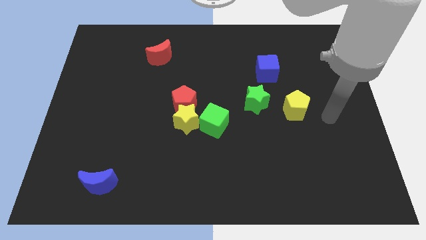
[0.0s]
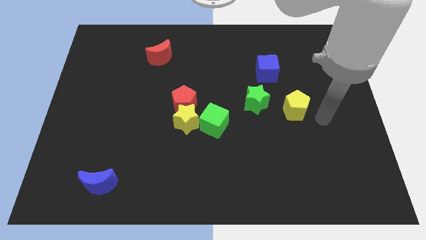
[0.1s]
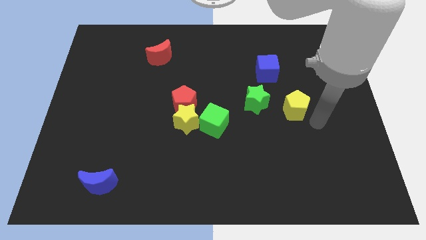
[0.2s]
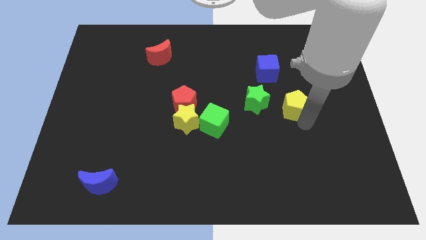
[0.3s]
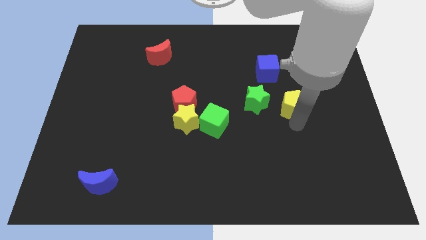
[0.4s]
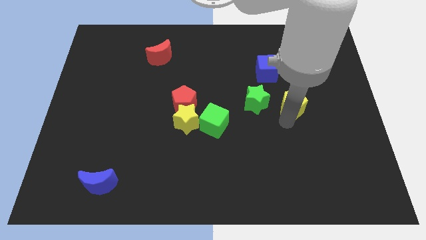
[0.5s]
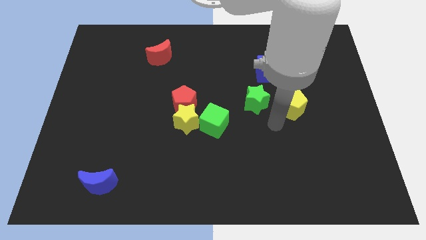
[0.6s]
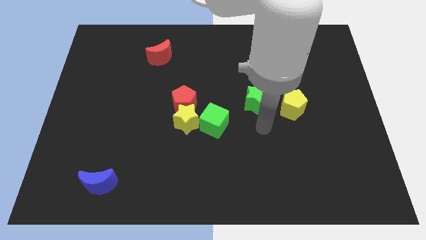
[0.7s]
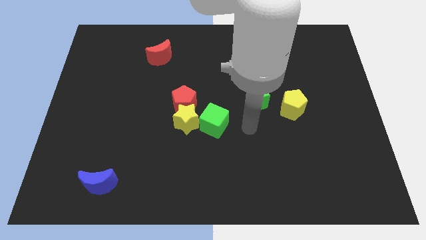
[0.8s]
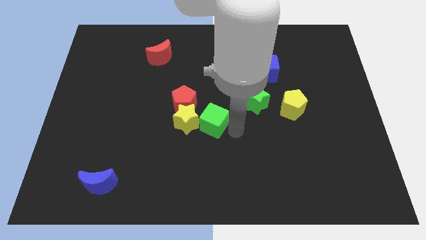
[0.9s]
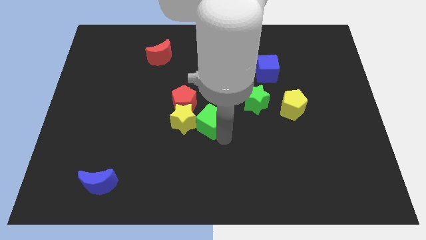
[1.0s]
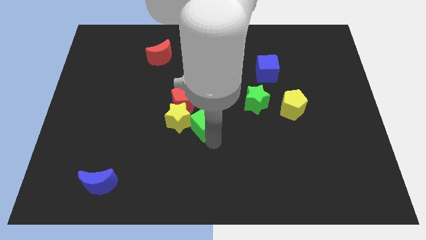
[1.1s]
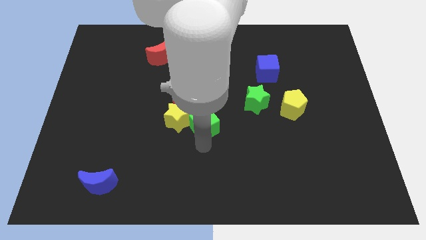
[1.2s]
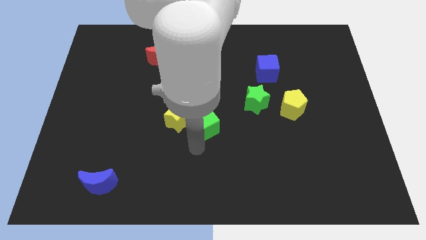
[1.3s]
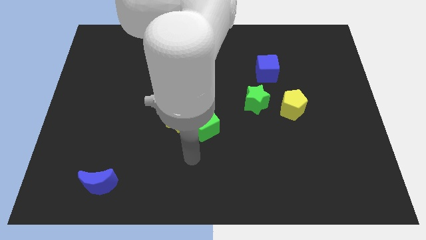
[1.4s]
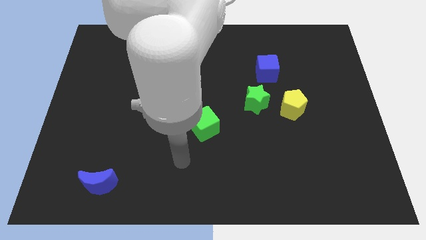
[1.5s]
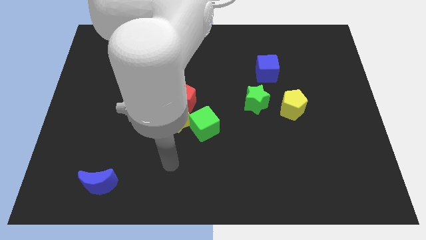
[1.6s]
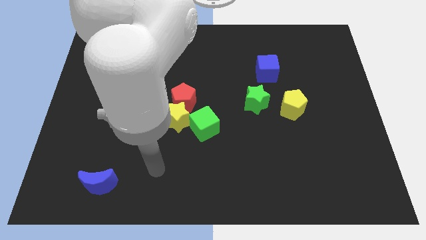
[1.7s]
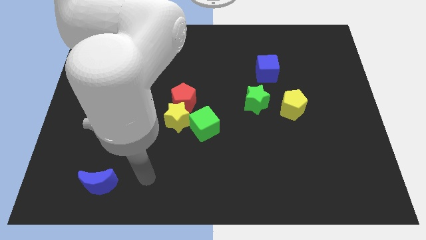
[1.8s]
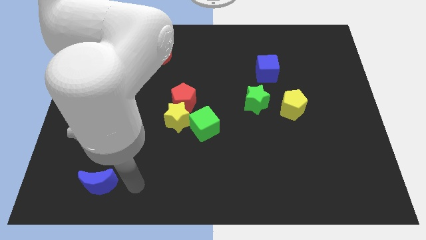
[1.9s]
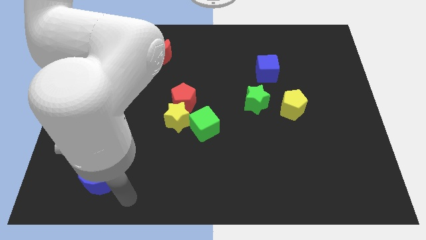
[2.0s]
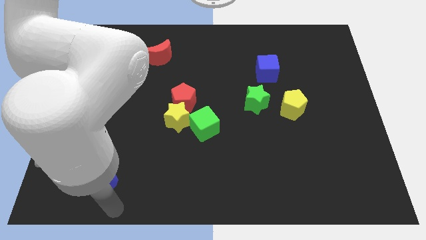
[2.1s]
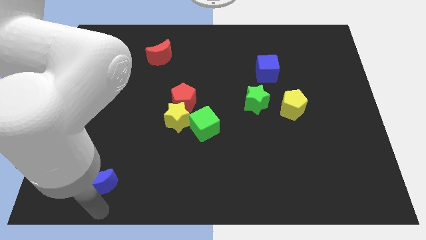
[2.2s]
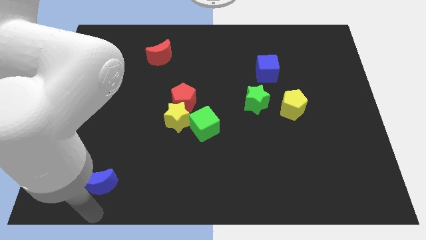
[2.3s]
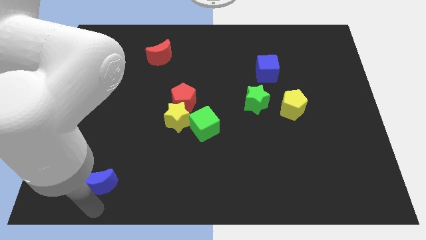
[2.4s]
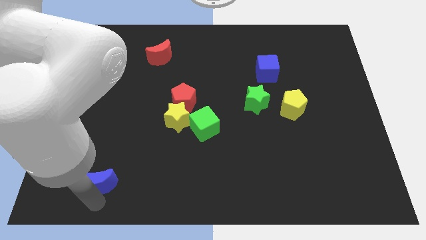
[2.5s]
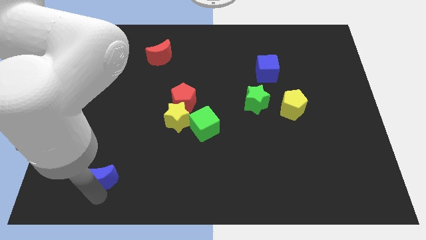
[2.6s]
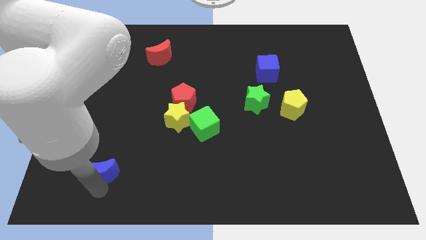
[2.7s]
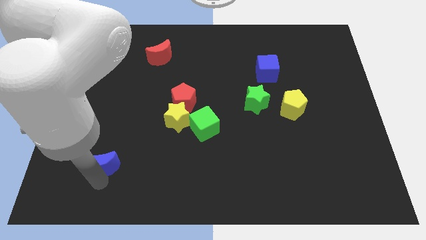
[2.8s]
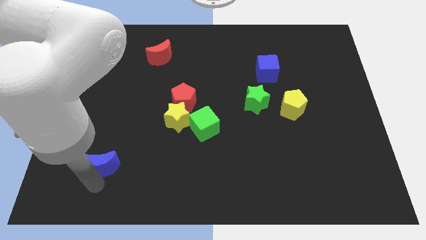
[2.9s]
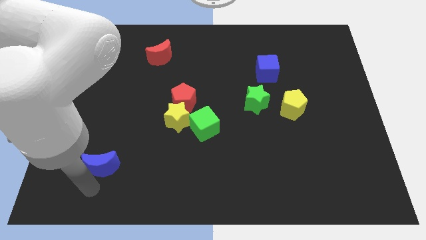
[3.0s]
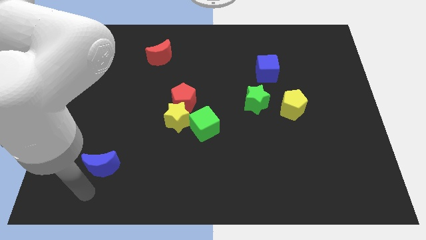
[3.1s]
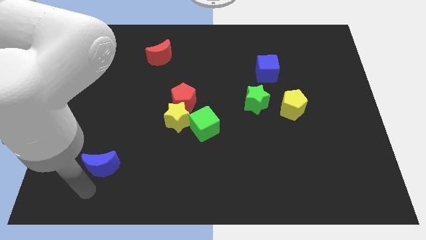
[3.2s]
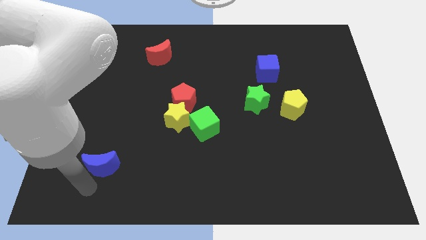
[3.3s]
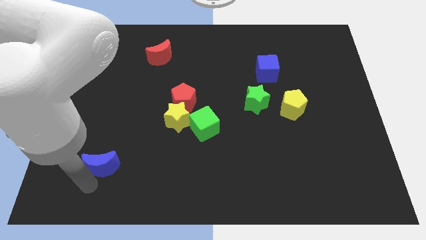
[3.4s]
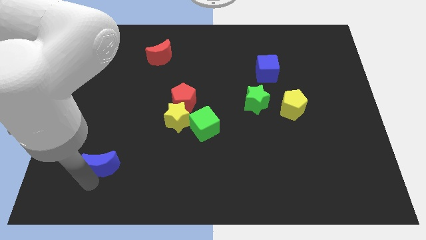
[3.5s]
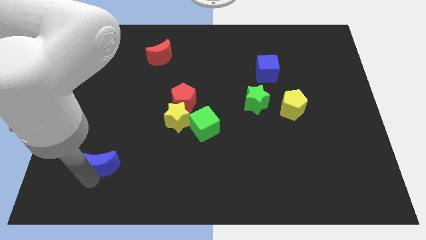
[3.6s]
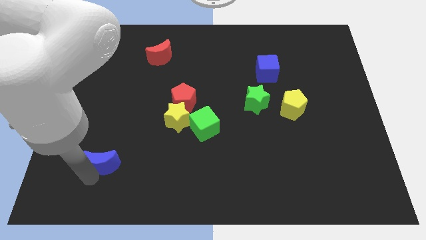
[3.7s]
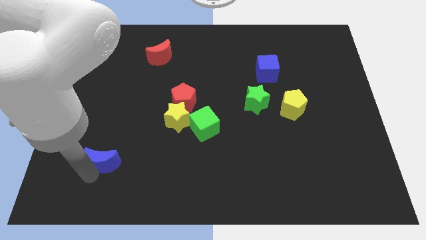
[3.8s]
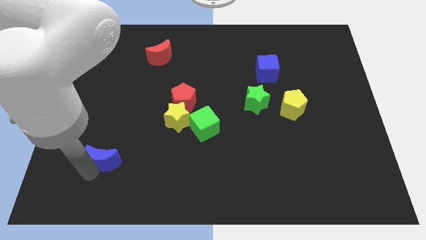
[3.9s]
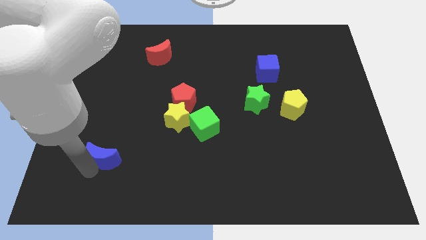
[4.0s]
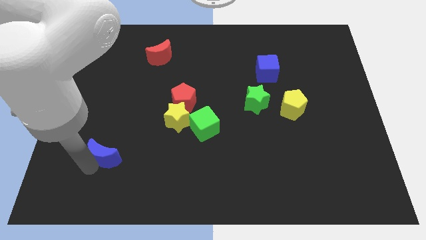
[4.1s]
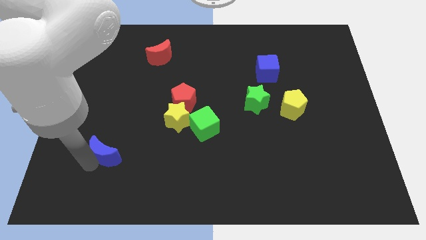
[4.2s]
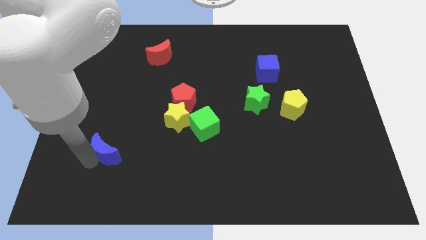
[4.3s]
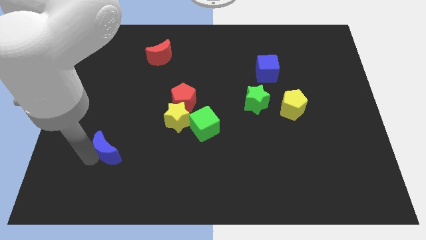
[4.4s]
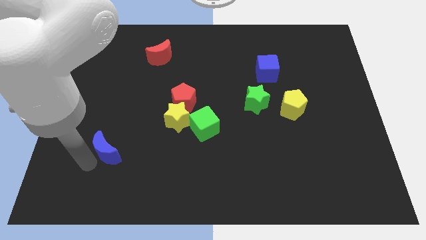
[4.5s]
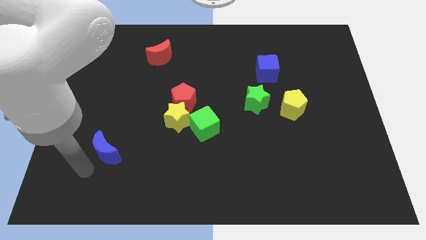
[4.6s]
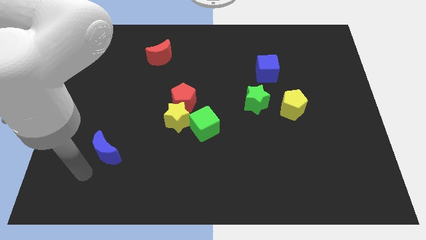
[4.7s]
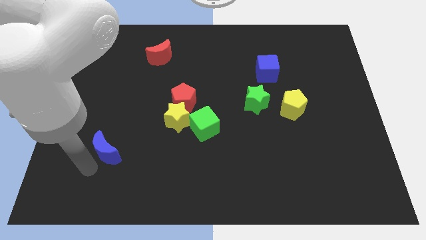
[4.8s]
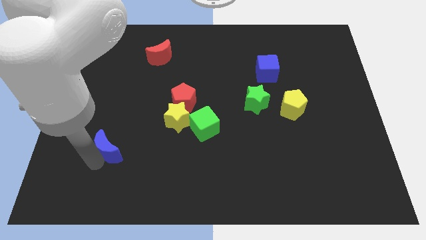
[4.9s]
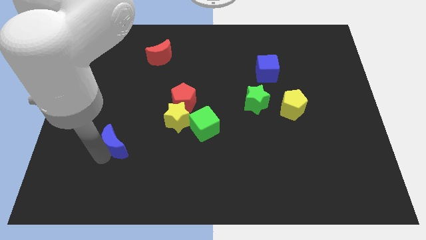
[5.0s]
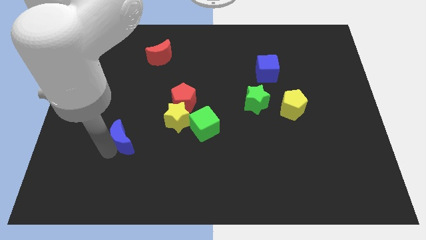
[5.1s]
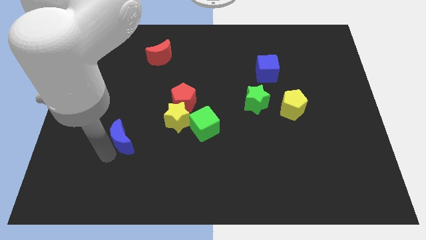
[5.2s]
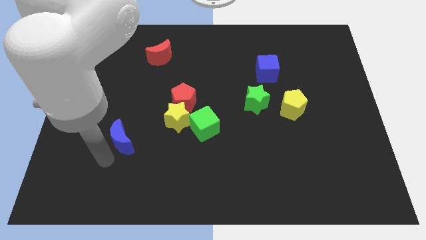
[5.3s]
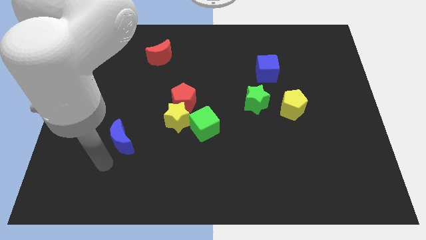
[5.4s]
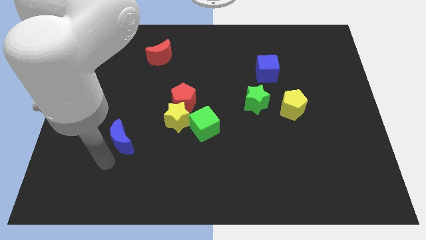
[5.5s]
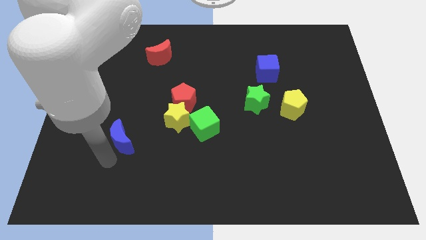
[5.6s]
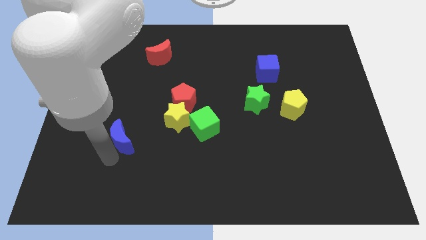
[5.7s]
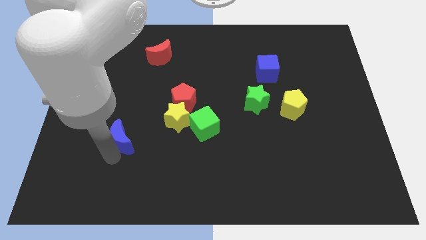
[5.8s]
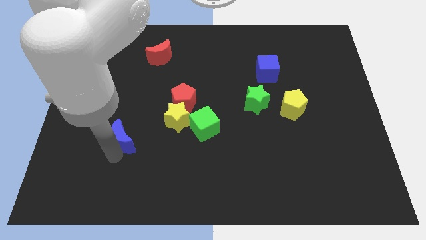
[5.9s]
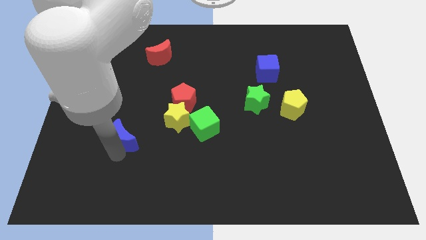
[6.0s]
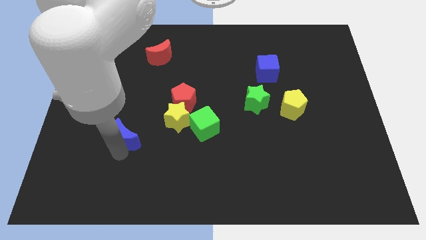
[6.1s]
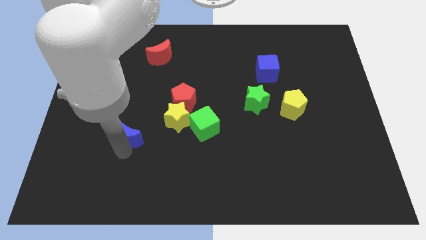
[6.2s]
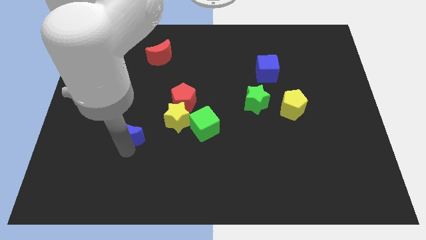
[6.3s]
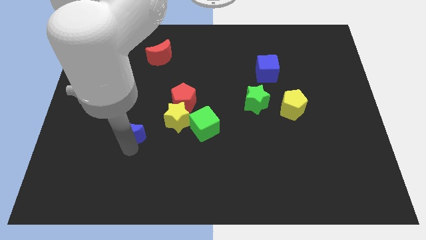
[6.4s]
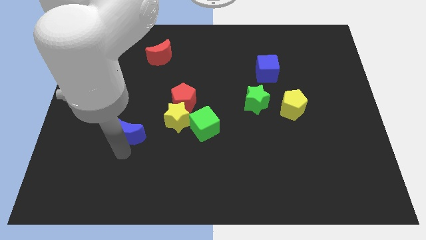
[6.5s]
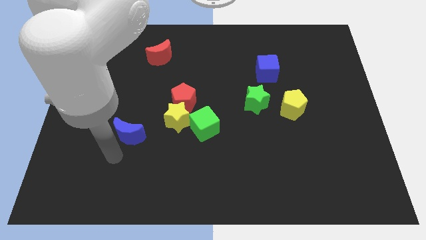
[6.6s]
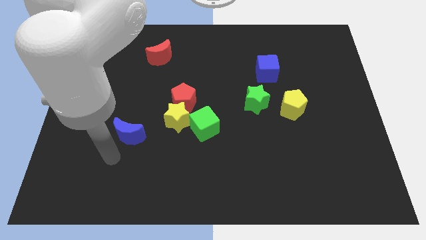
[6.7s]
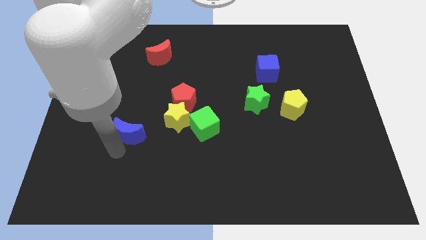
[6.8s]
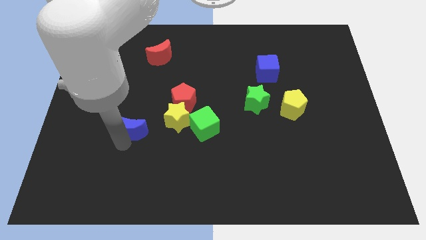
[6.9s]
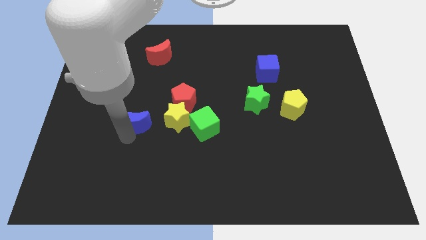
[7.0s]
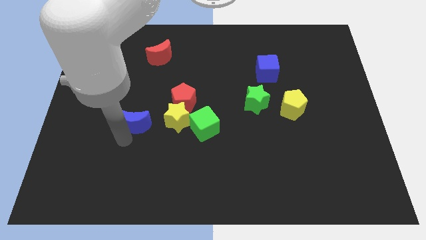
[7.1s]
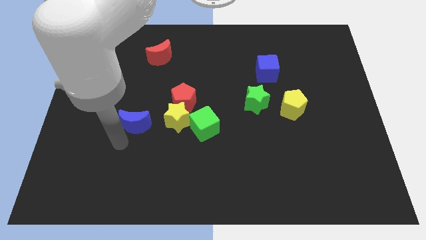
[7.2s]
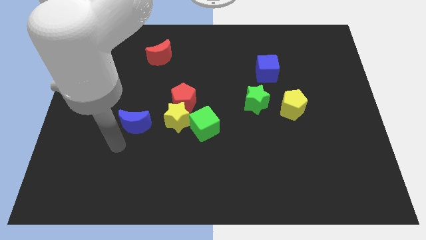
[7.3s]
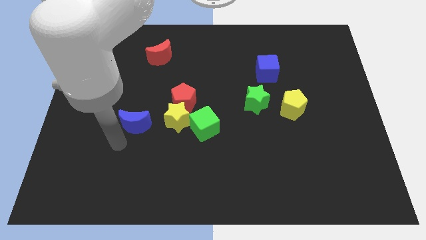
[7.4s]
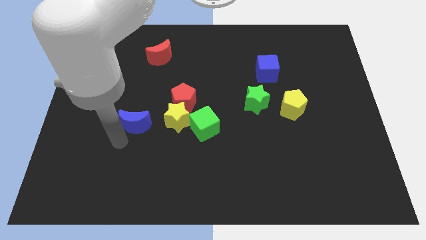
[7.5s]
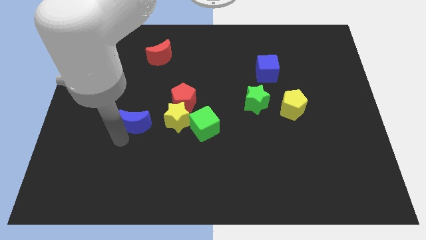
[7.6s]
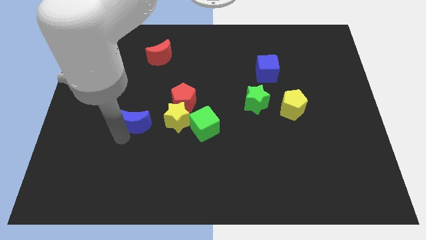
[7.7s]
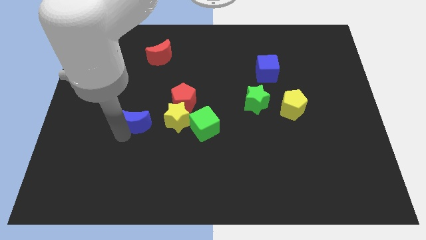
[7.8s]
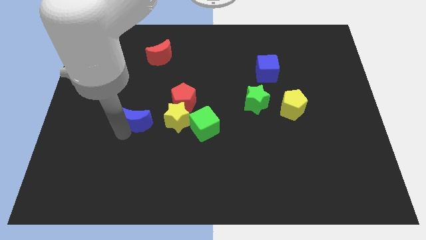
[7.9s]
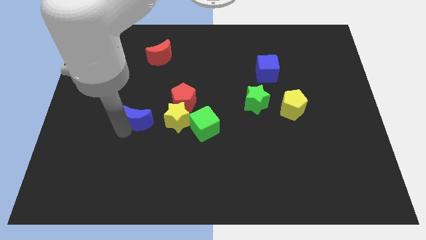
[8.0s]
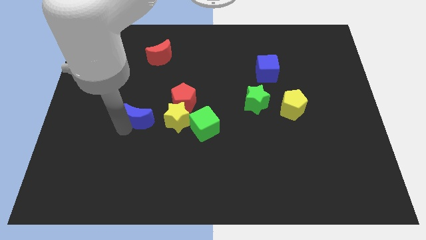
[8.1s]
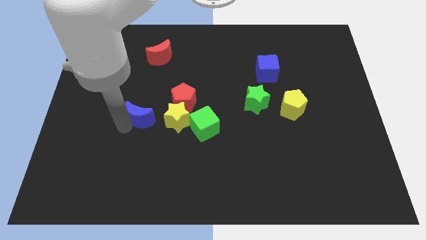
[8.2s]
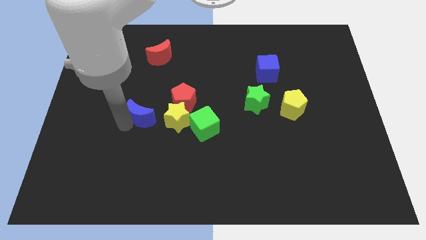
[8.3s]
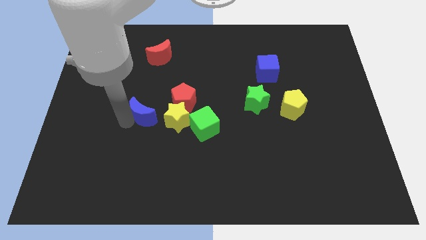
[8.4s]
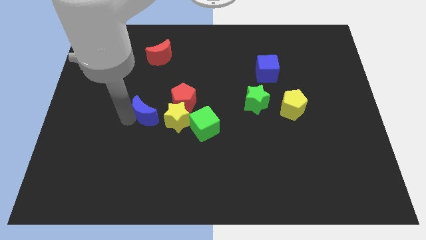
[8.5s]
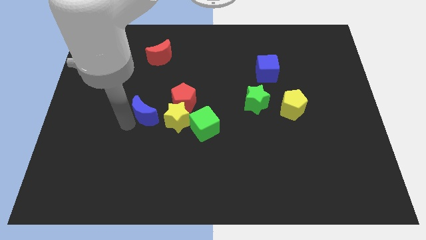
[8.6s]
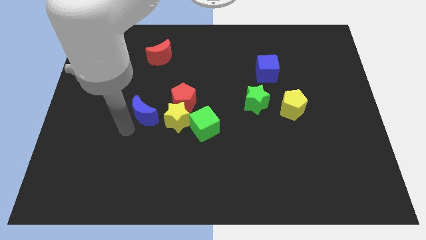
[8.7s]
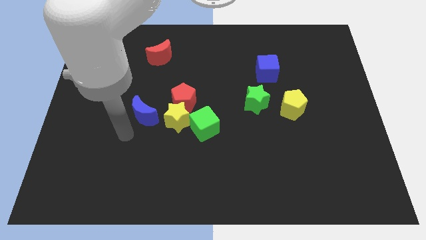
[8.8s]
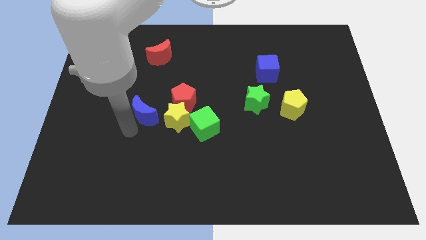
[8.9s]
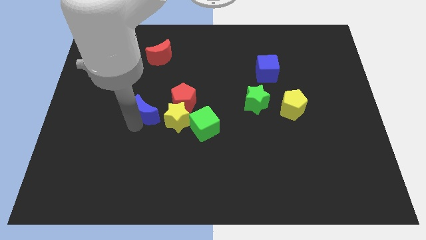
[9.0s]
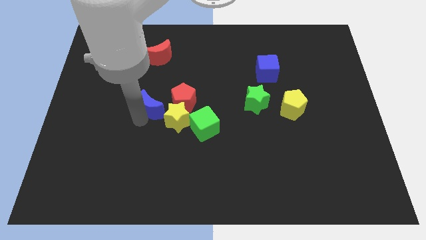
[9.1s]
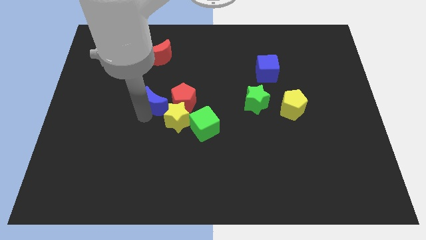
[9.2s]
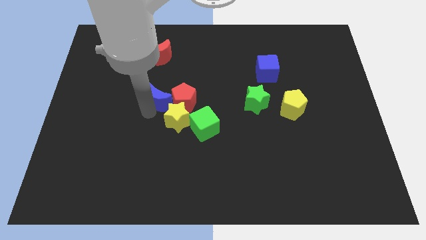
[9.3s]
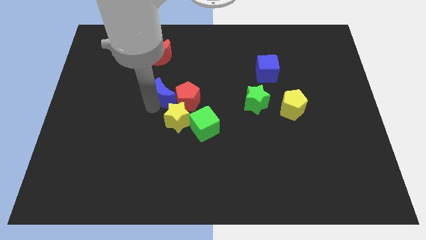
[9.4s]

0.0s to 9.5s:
move the blue moon up and to the right diagonally
